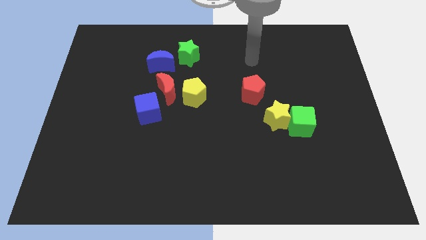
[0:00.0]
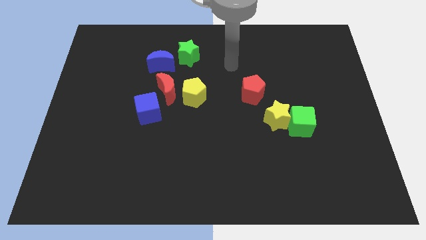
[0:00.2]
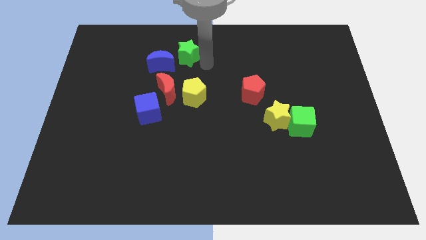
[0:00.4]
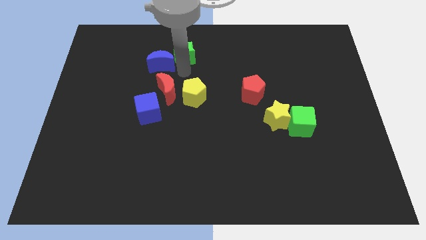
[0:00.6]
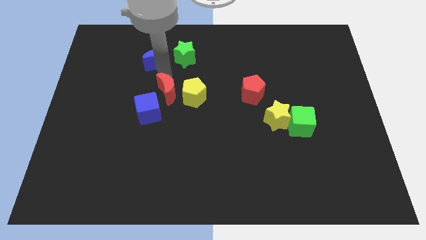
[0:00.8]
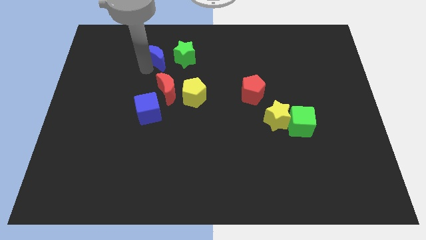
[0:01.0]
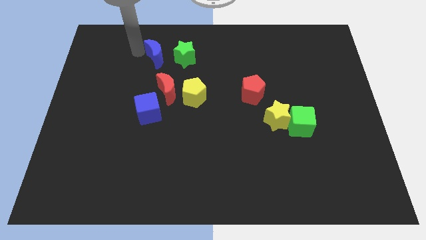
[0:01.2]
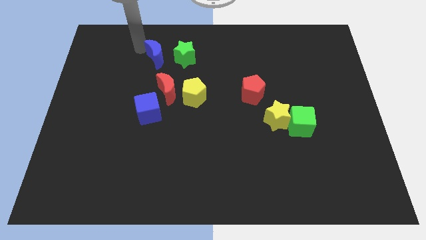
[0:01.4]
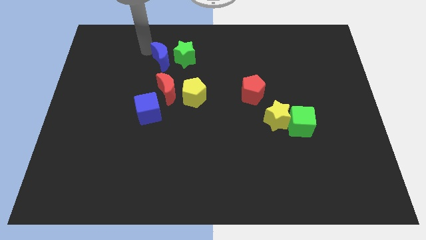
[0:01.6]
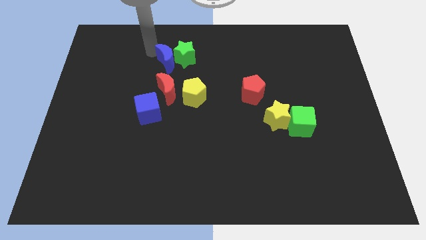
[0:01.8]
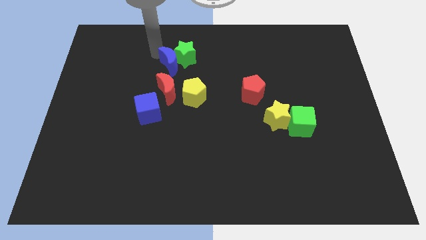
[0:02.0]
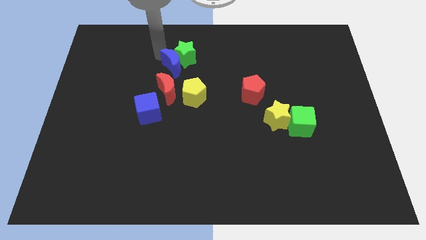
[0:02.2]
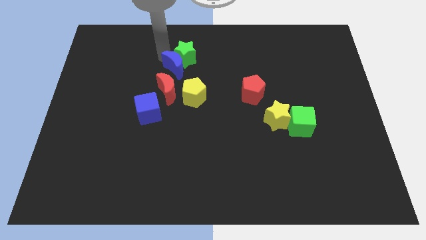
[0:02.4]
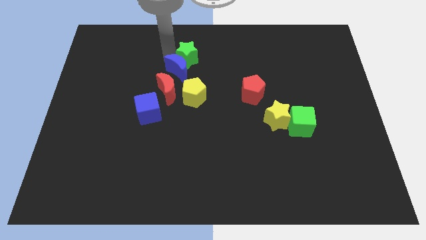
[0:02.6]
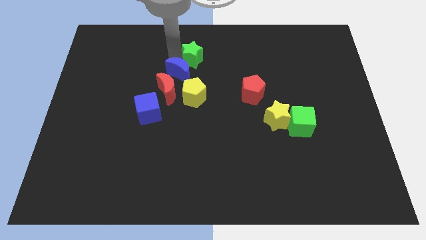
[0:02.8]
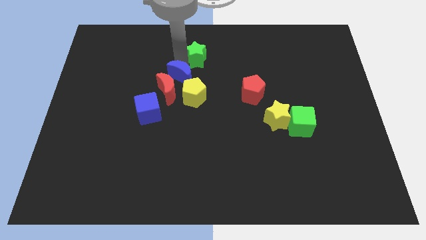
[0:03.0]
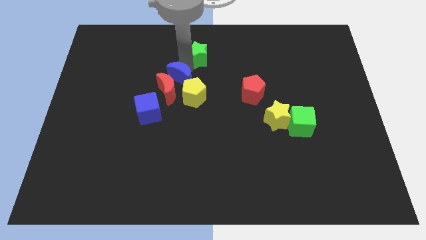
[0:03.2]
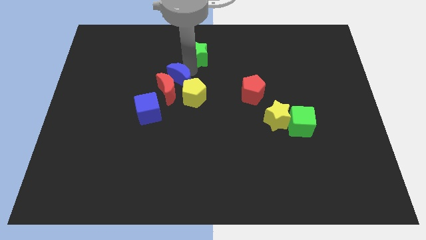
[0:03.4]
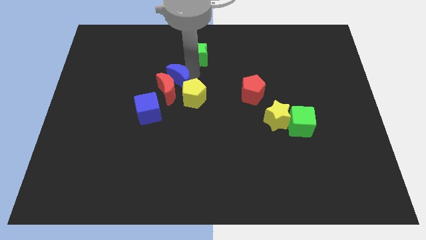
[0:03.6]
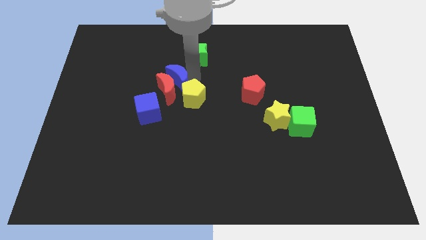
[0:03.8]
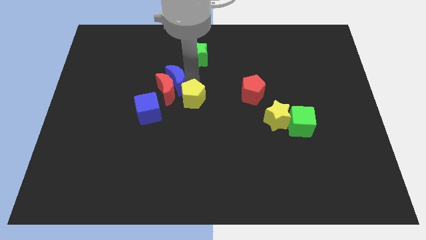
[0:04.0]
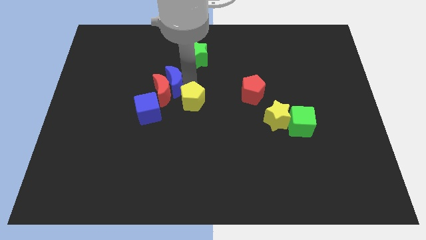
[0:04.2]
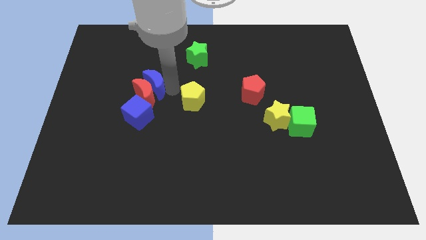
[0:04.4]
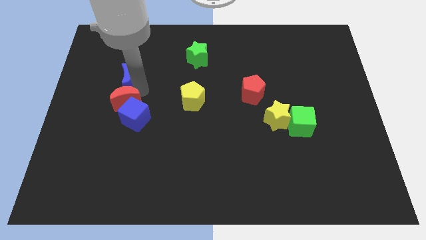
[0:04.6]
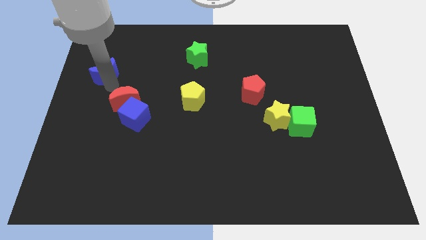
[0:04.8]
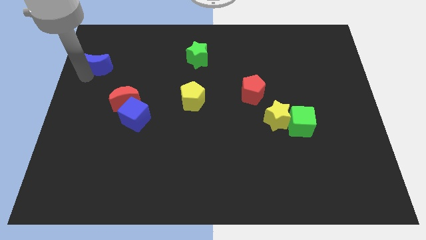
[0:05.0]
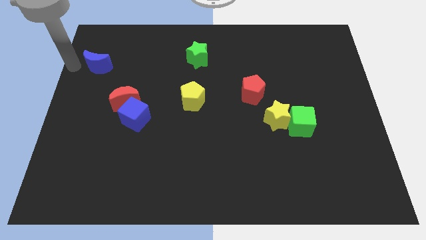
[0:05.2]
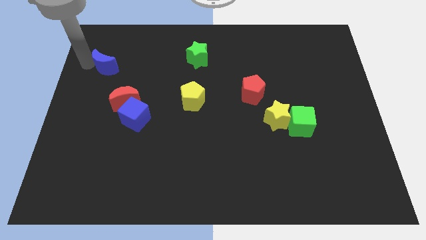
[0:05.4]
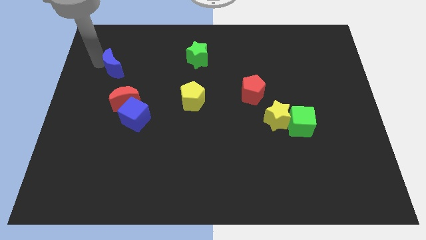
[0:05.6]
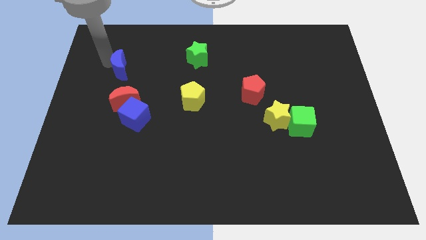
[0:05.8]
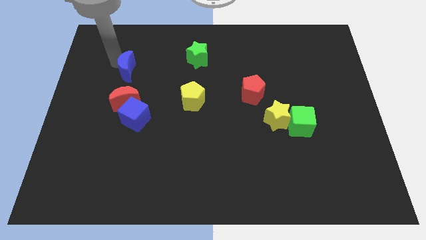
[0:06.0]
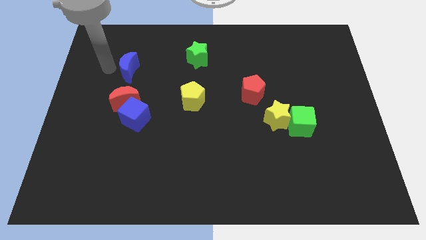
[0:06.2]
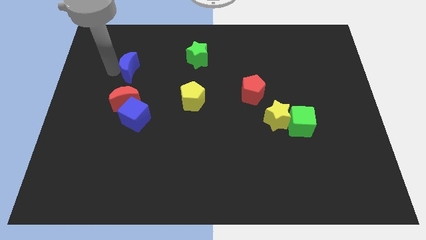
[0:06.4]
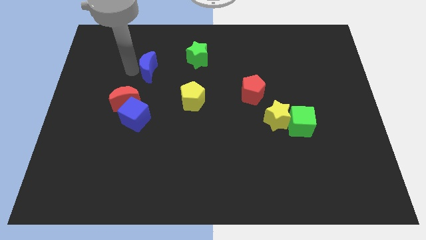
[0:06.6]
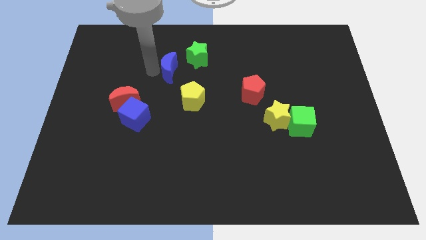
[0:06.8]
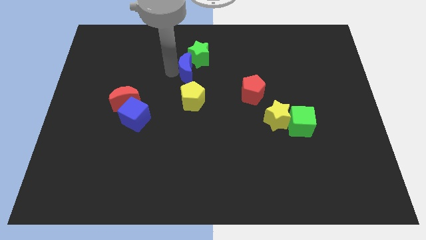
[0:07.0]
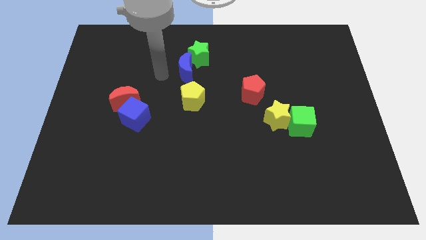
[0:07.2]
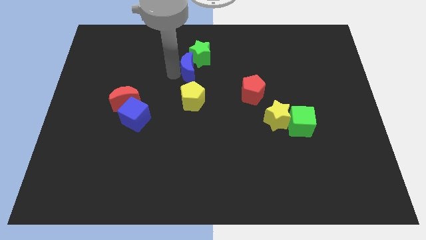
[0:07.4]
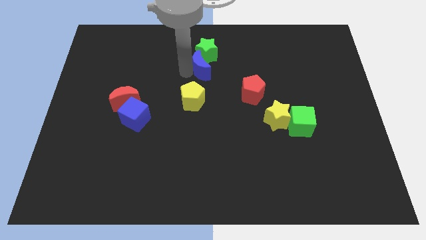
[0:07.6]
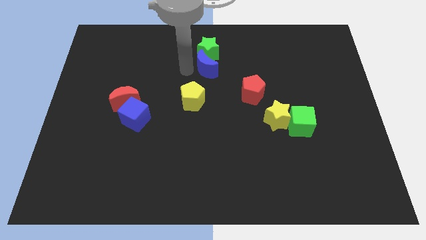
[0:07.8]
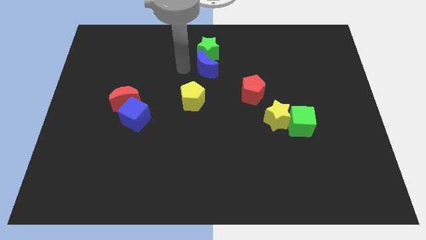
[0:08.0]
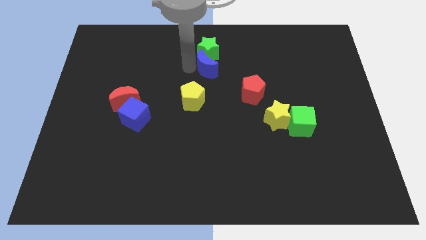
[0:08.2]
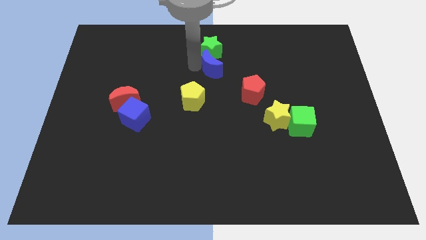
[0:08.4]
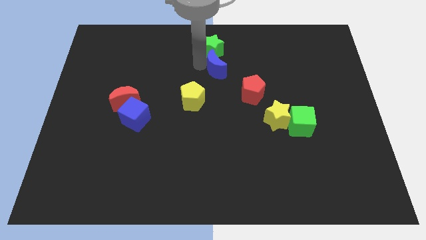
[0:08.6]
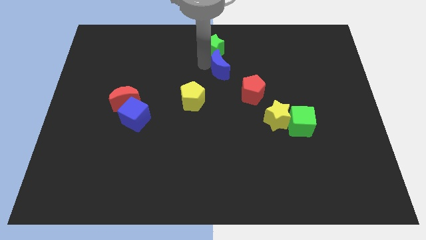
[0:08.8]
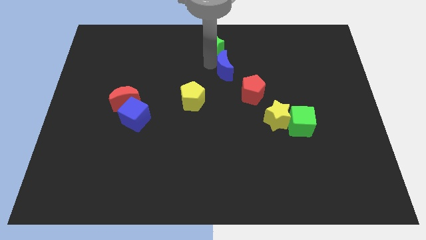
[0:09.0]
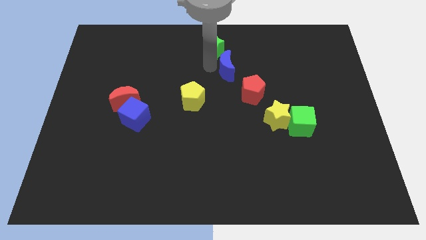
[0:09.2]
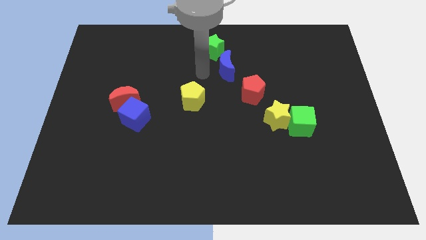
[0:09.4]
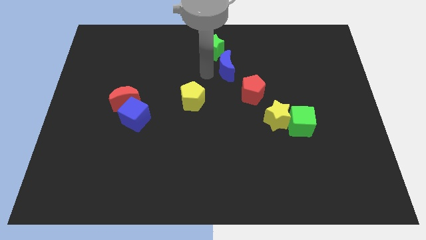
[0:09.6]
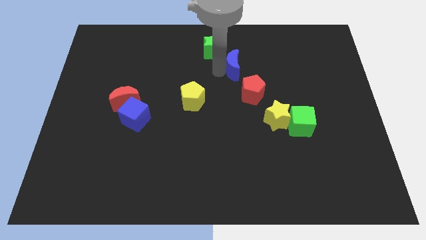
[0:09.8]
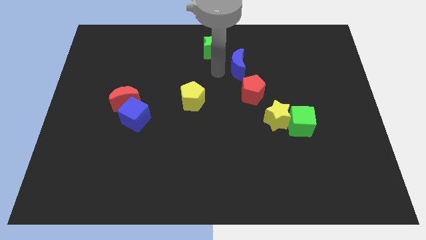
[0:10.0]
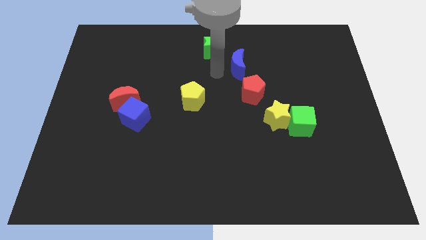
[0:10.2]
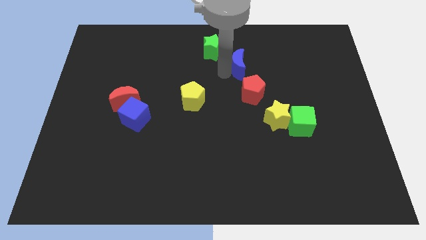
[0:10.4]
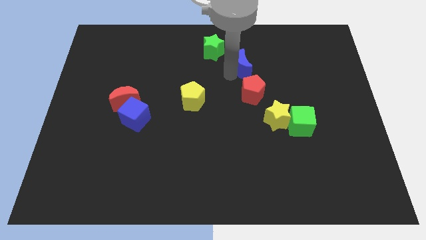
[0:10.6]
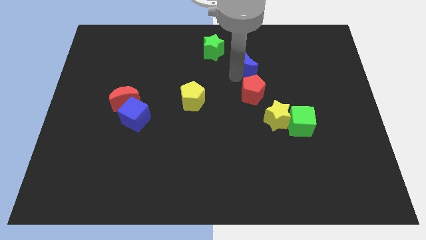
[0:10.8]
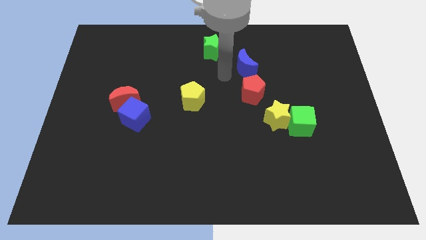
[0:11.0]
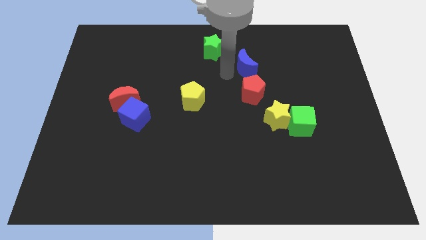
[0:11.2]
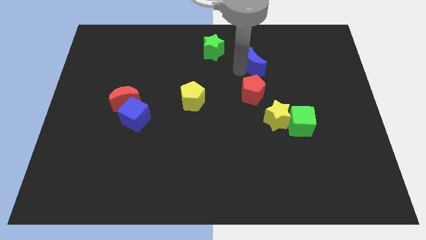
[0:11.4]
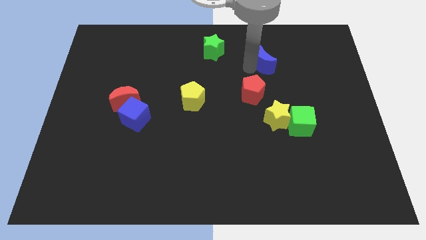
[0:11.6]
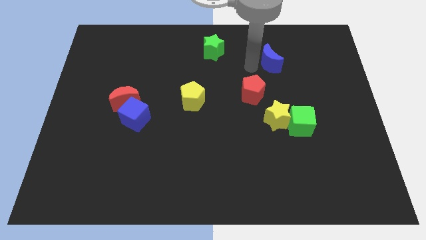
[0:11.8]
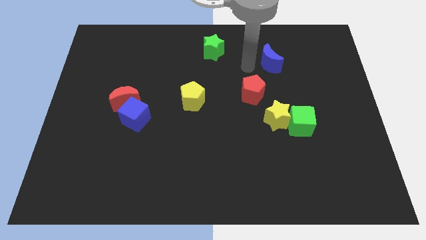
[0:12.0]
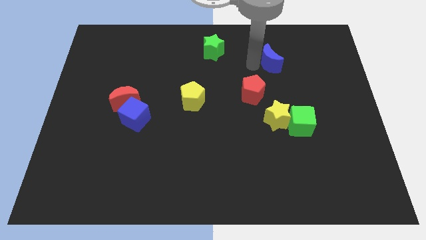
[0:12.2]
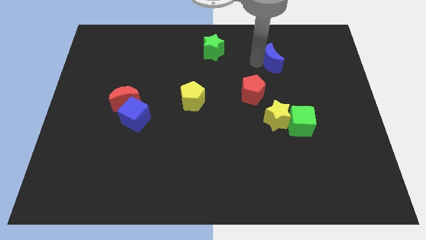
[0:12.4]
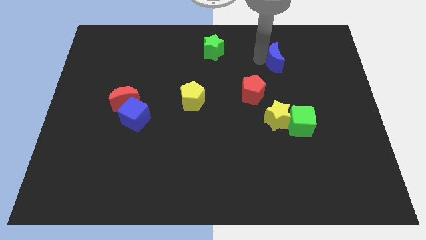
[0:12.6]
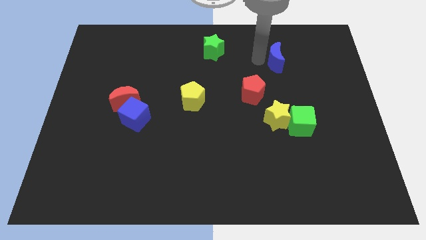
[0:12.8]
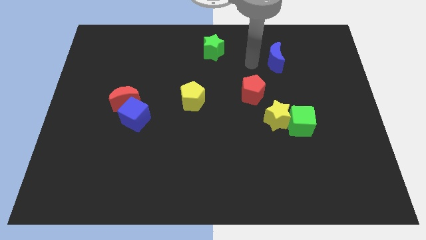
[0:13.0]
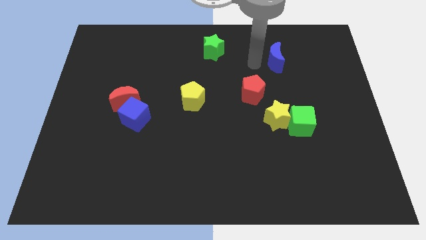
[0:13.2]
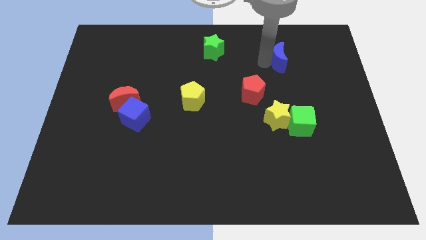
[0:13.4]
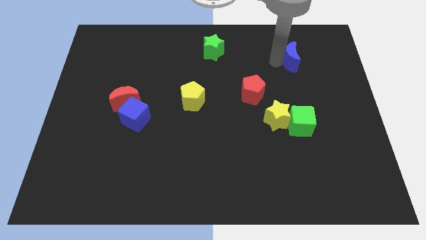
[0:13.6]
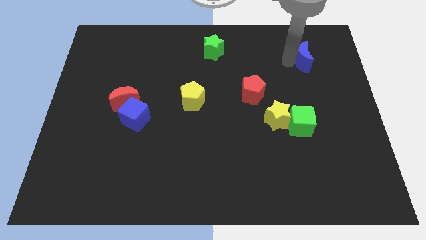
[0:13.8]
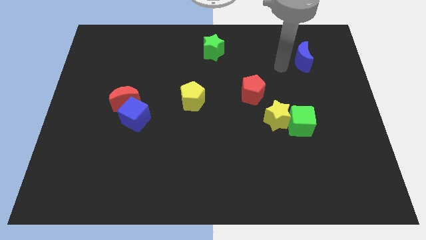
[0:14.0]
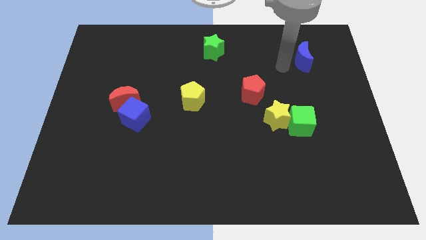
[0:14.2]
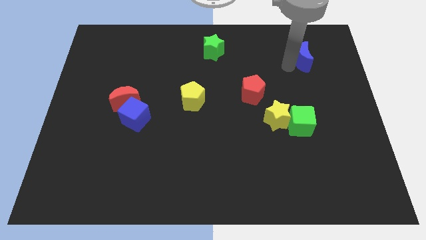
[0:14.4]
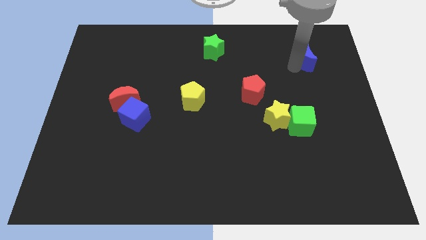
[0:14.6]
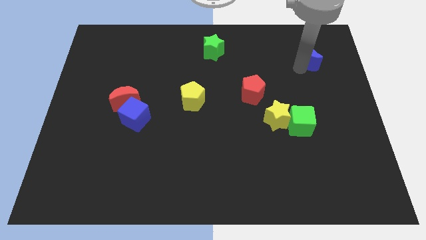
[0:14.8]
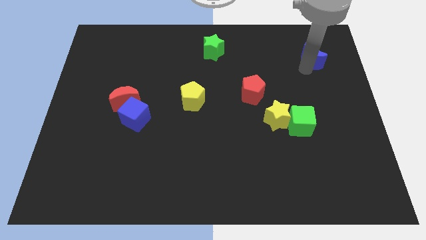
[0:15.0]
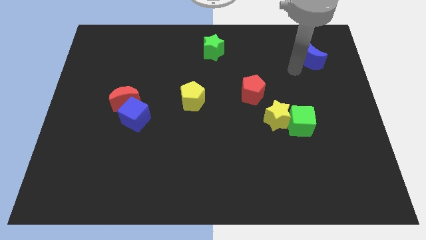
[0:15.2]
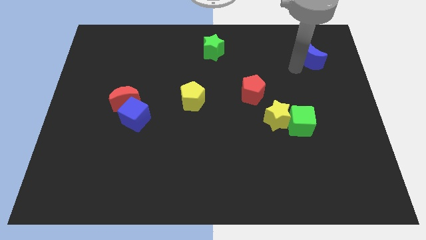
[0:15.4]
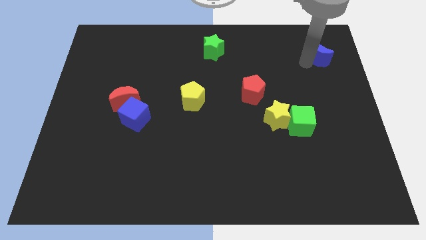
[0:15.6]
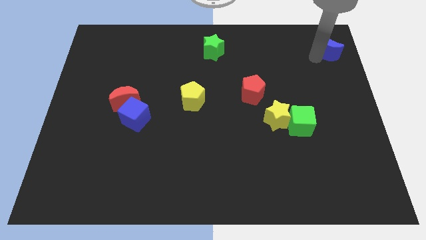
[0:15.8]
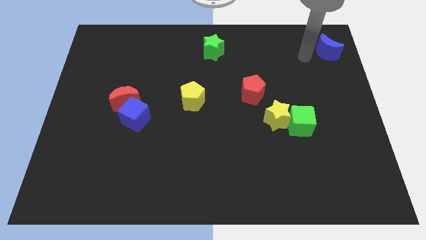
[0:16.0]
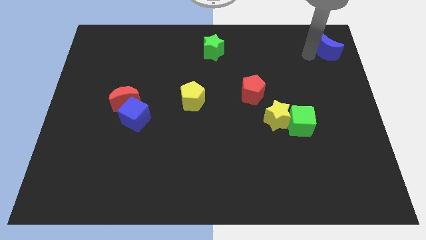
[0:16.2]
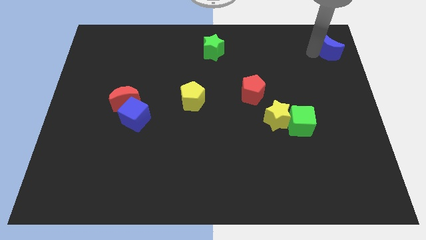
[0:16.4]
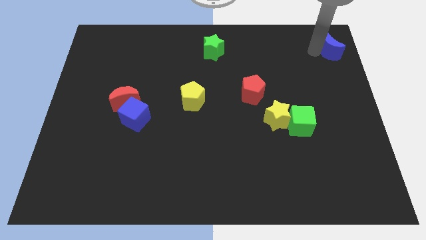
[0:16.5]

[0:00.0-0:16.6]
slide the blue moon to the top right of the board
